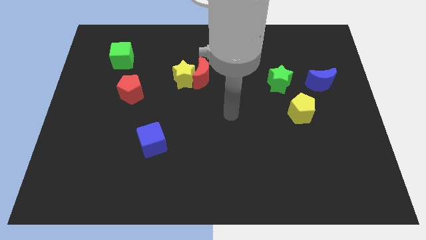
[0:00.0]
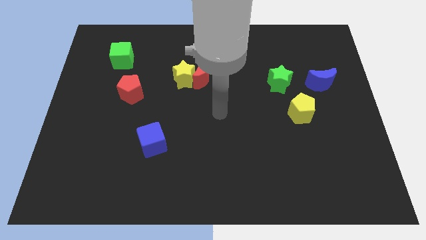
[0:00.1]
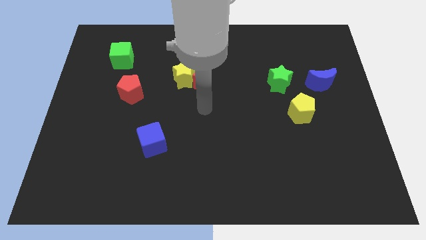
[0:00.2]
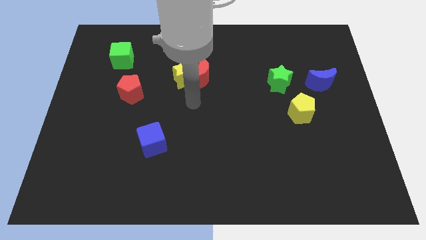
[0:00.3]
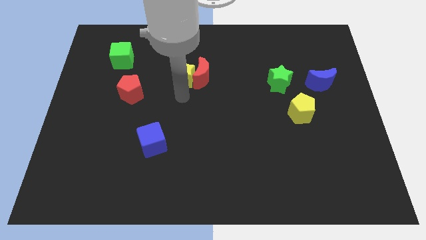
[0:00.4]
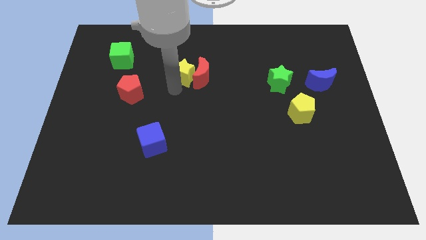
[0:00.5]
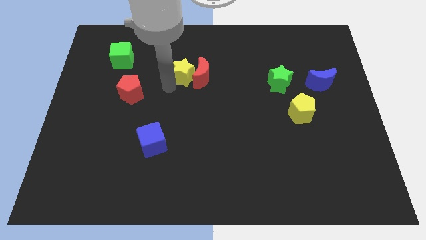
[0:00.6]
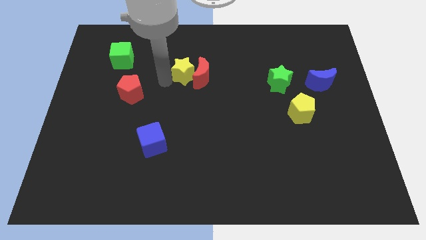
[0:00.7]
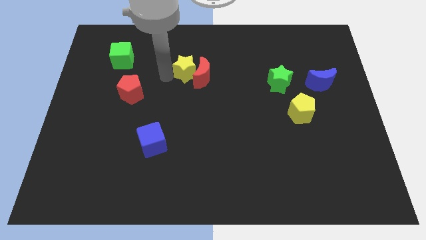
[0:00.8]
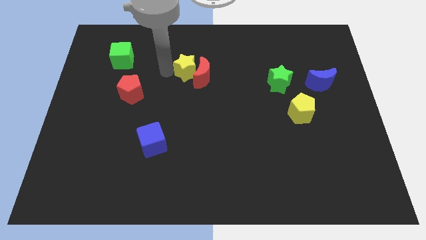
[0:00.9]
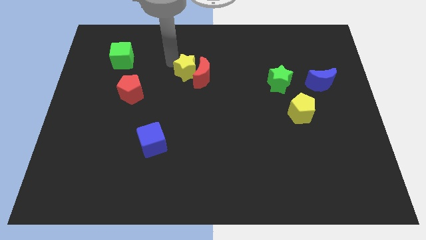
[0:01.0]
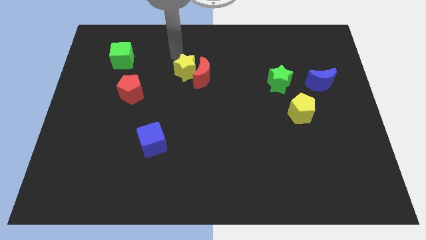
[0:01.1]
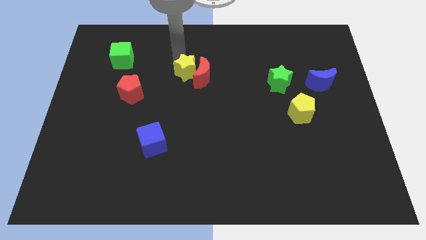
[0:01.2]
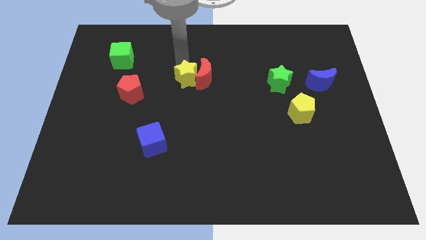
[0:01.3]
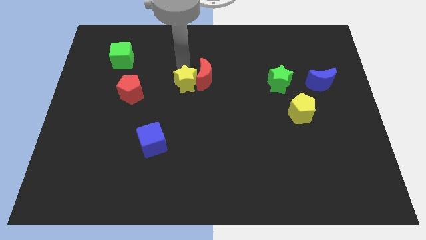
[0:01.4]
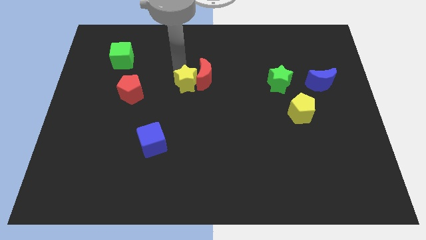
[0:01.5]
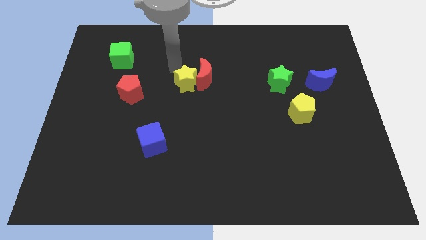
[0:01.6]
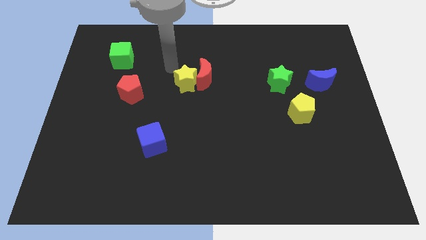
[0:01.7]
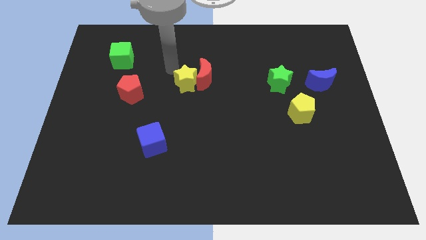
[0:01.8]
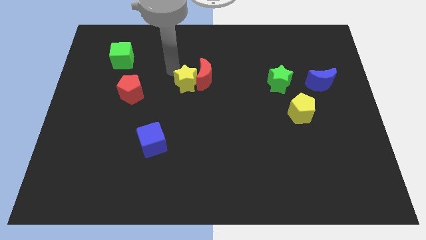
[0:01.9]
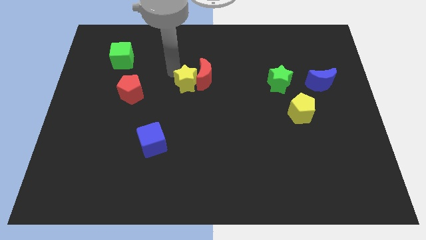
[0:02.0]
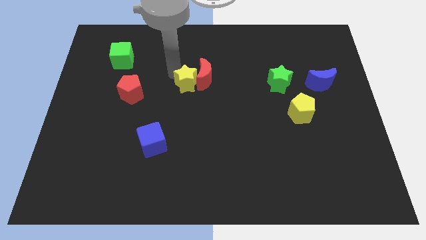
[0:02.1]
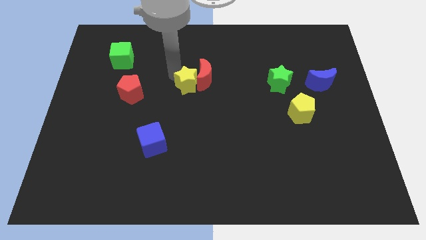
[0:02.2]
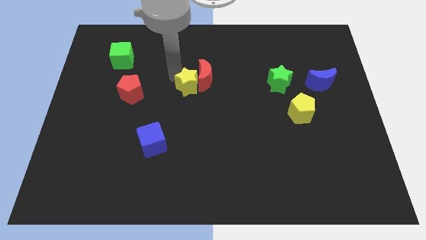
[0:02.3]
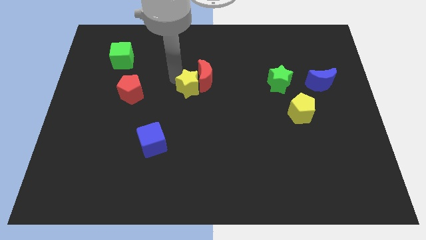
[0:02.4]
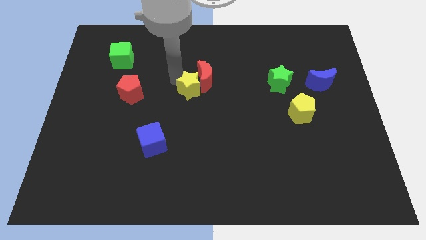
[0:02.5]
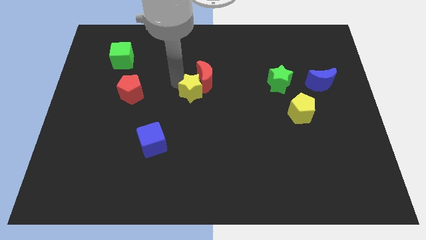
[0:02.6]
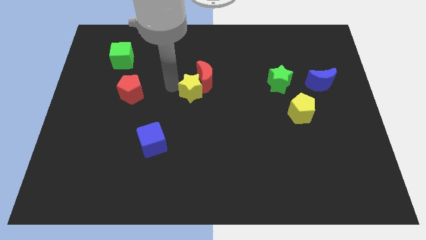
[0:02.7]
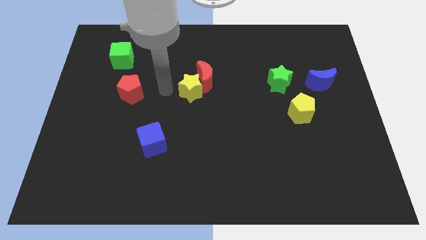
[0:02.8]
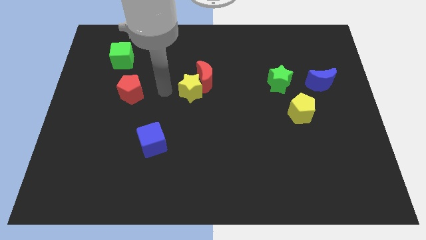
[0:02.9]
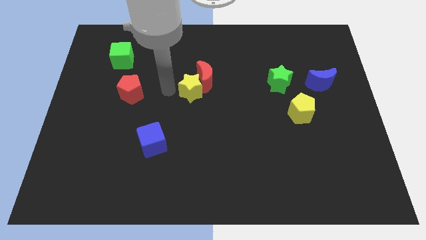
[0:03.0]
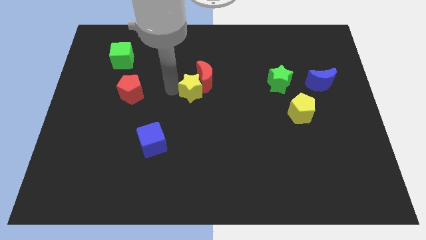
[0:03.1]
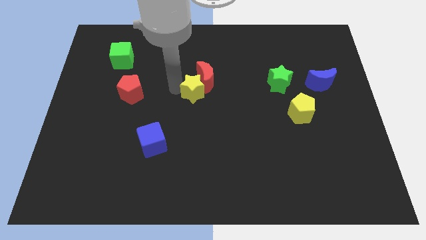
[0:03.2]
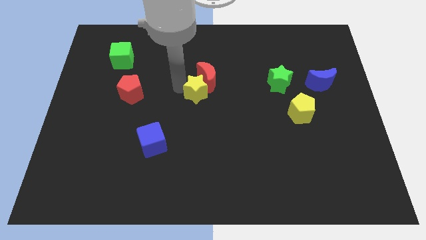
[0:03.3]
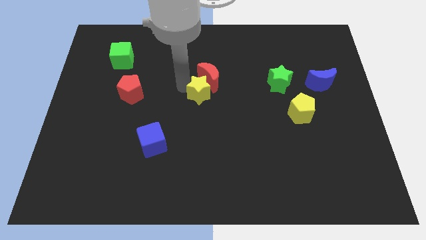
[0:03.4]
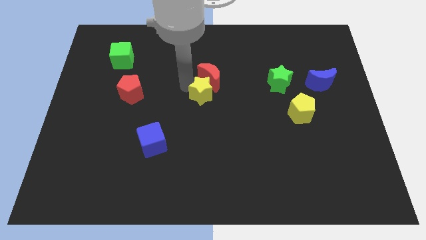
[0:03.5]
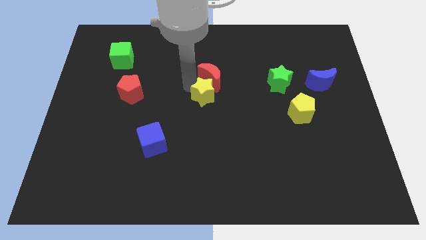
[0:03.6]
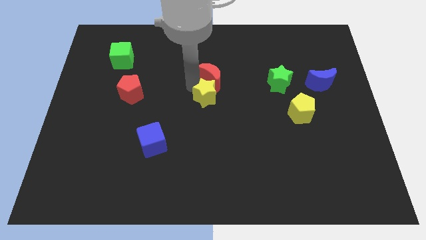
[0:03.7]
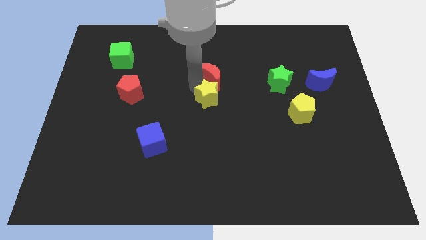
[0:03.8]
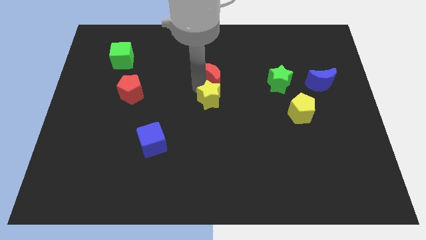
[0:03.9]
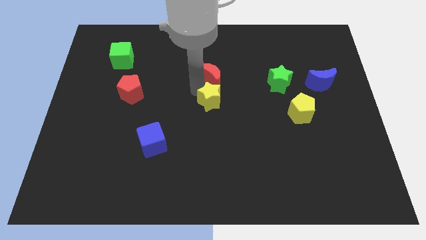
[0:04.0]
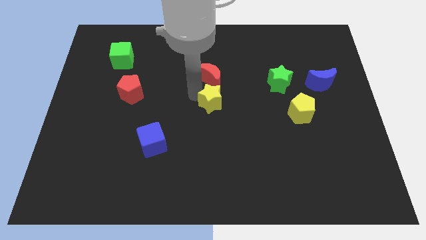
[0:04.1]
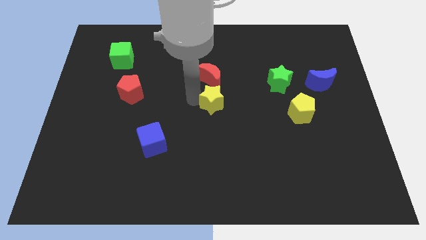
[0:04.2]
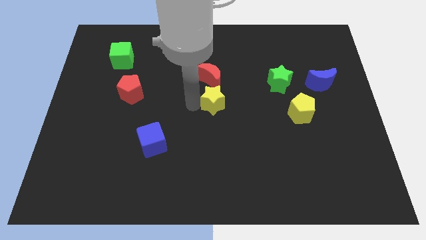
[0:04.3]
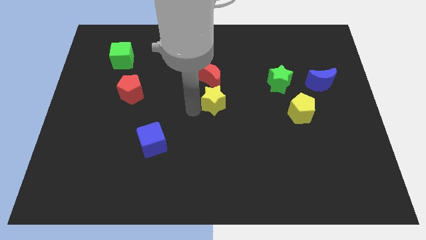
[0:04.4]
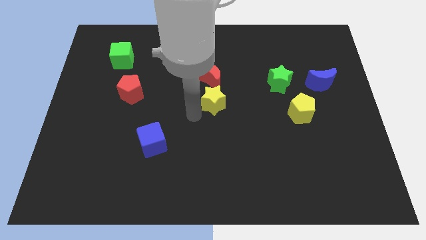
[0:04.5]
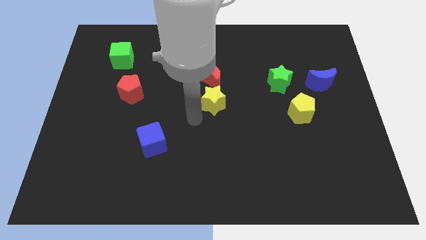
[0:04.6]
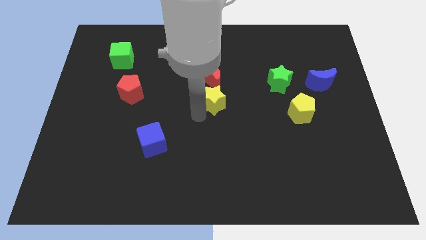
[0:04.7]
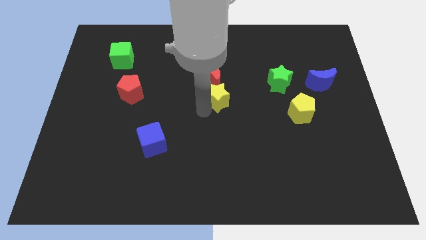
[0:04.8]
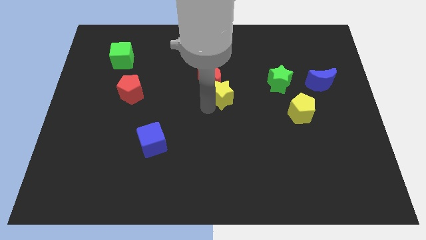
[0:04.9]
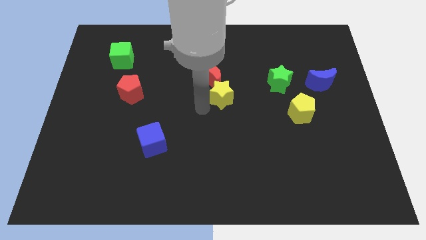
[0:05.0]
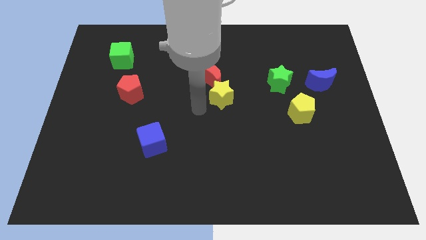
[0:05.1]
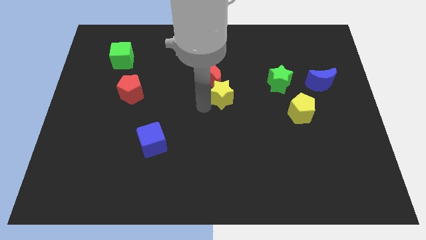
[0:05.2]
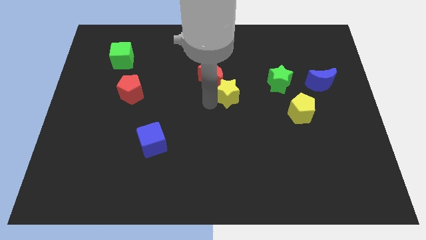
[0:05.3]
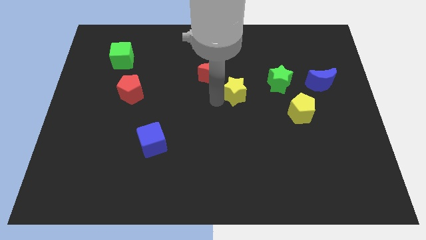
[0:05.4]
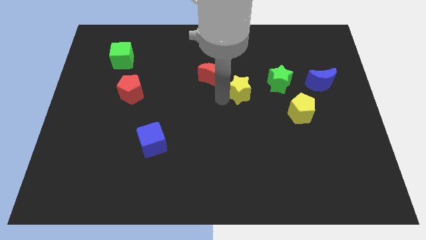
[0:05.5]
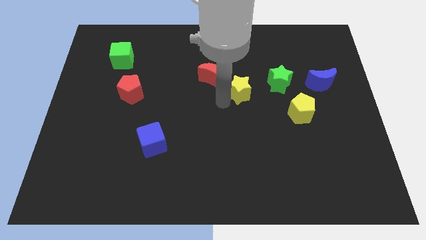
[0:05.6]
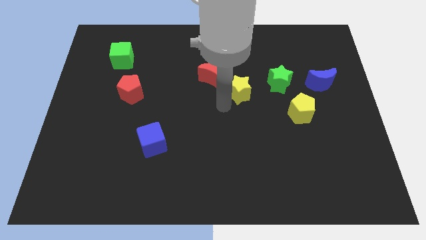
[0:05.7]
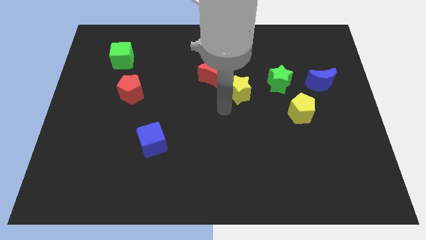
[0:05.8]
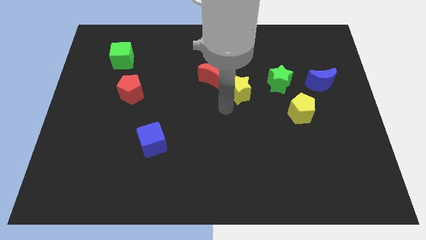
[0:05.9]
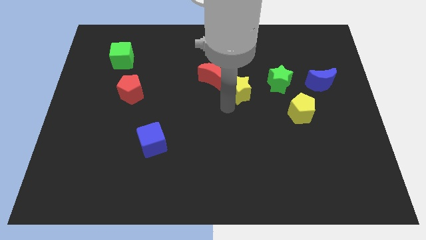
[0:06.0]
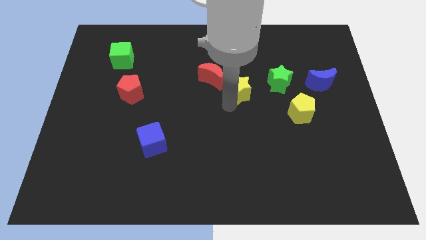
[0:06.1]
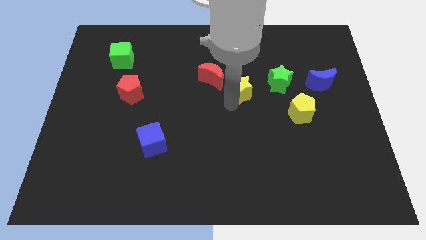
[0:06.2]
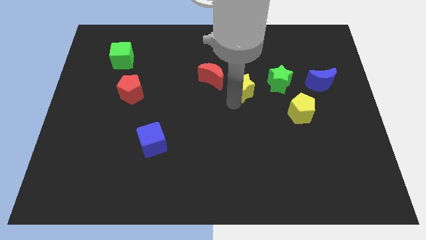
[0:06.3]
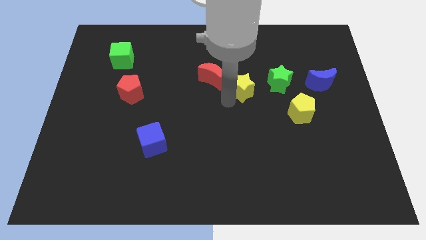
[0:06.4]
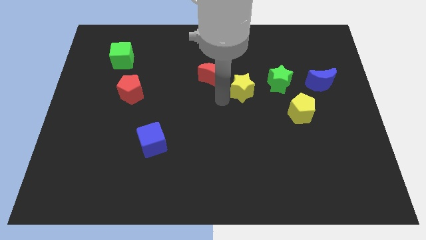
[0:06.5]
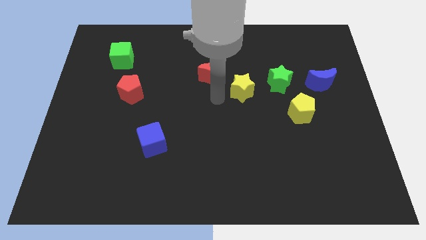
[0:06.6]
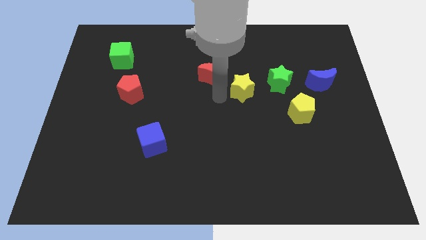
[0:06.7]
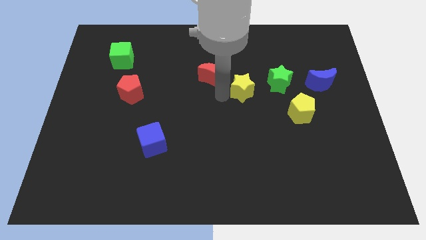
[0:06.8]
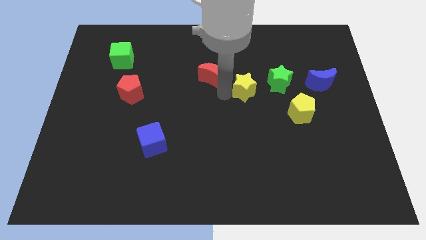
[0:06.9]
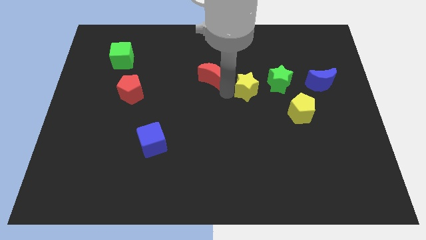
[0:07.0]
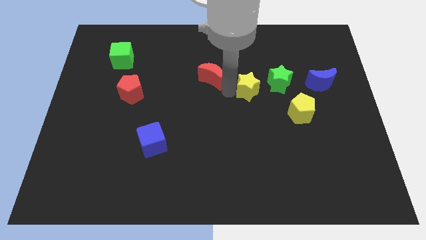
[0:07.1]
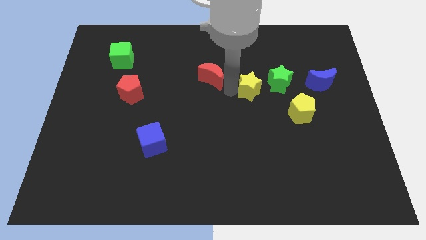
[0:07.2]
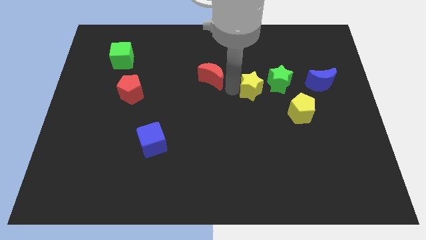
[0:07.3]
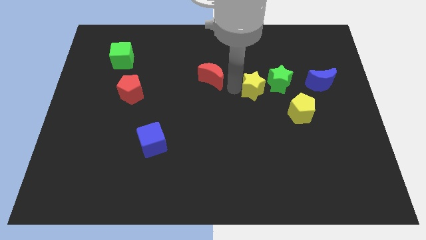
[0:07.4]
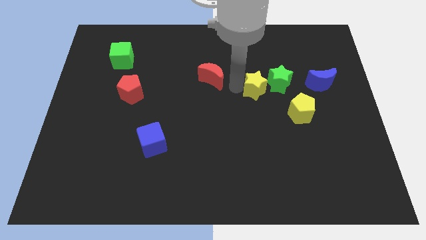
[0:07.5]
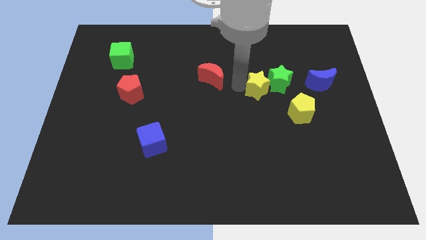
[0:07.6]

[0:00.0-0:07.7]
put the yellow star to the green star
